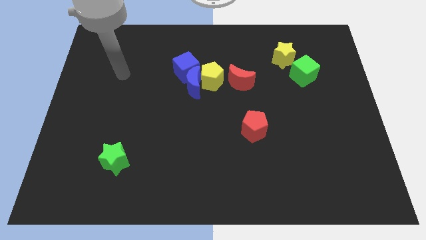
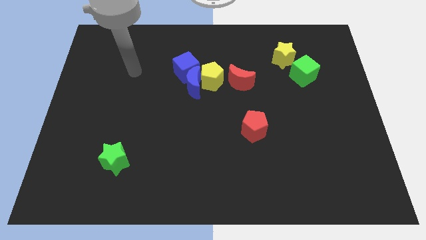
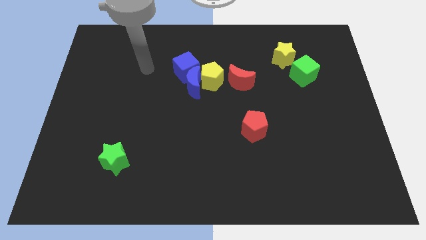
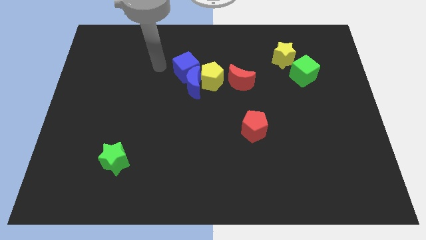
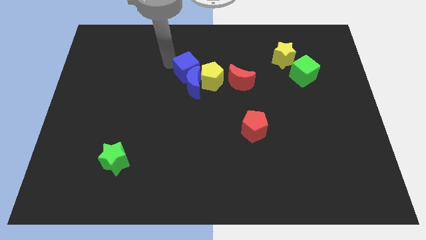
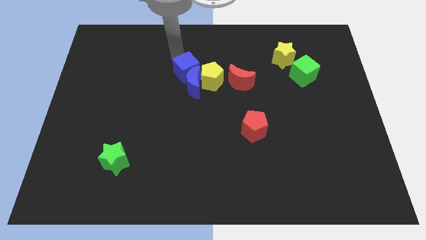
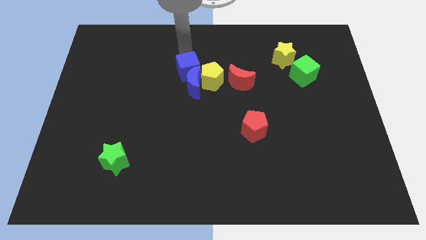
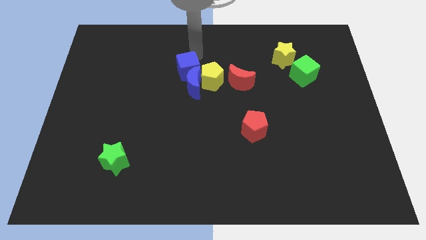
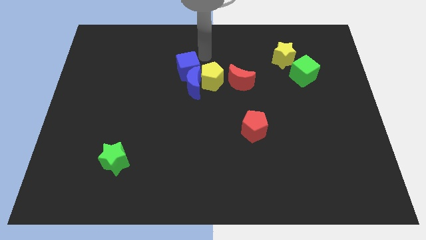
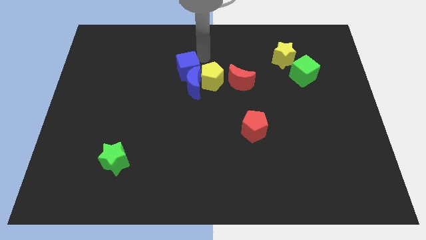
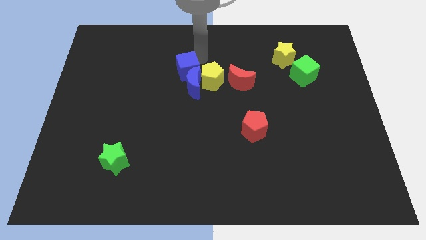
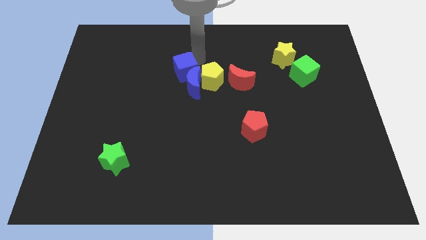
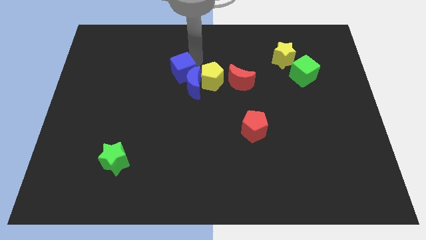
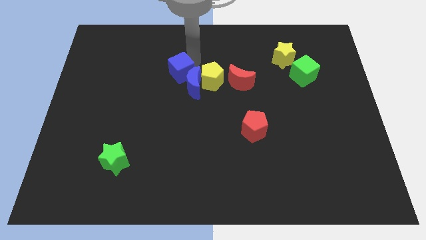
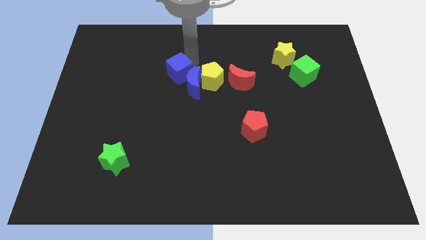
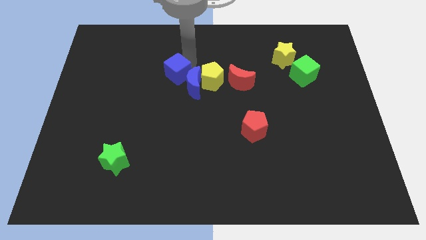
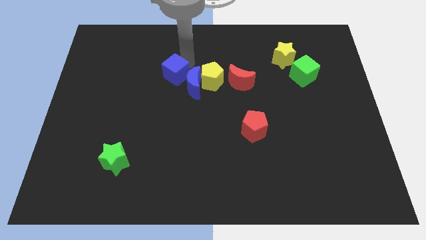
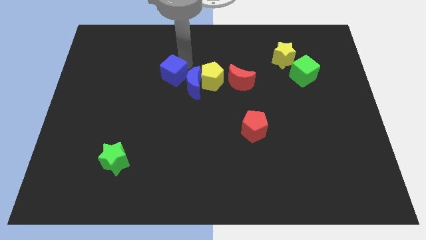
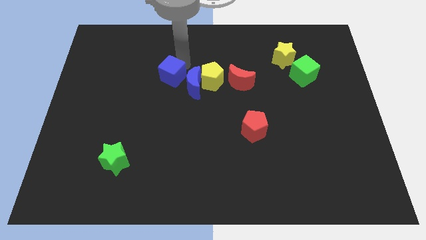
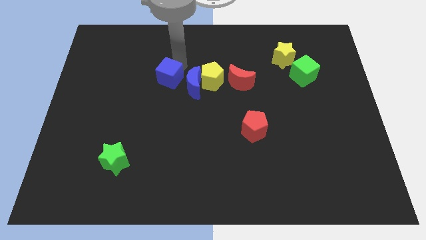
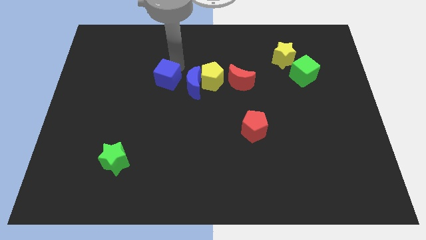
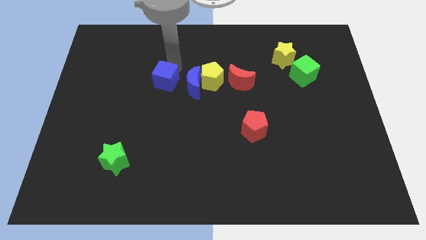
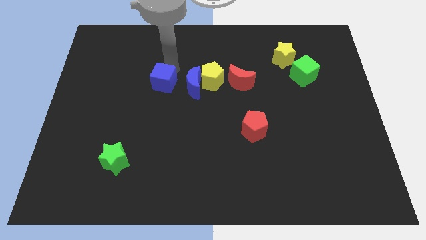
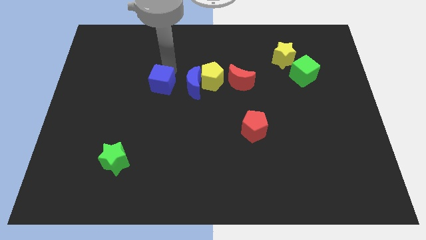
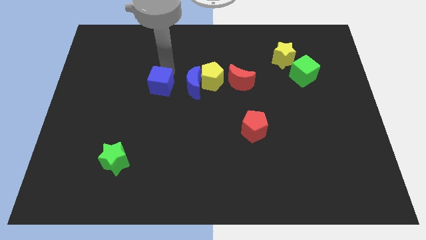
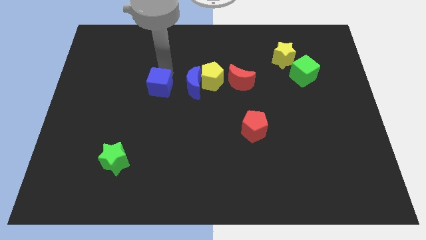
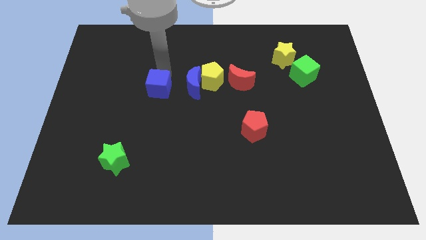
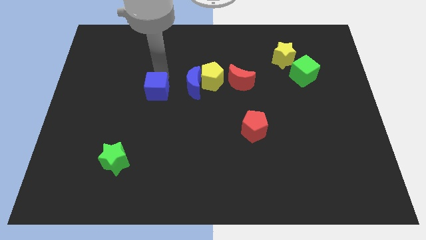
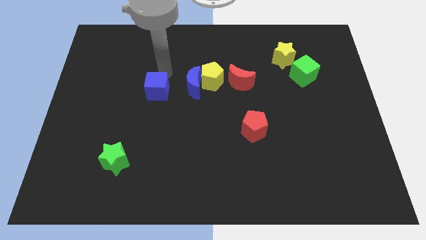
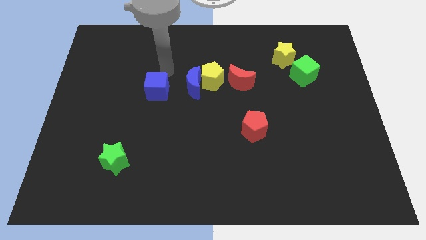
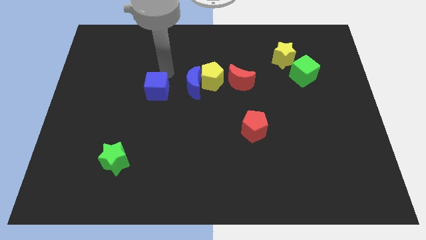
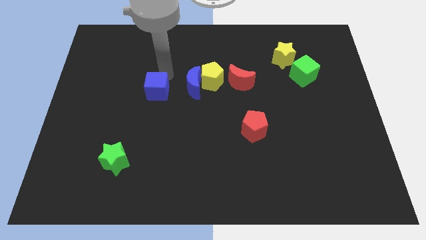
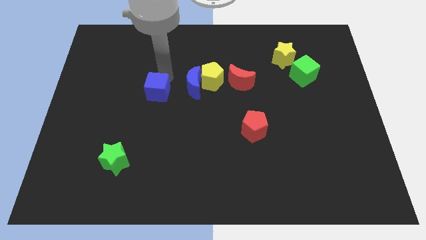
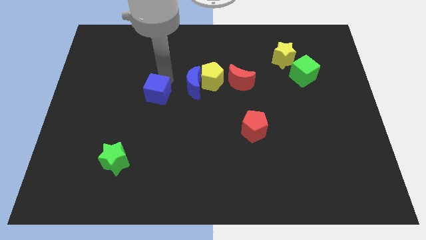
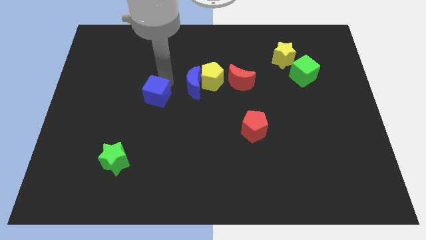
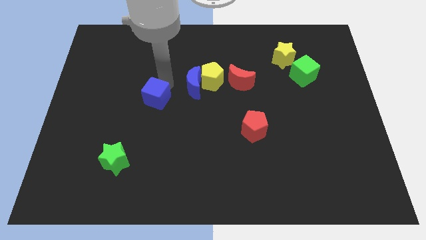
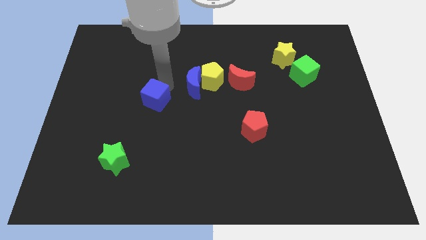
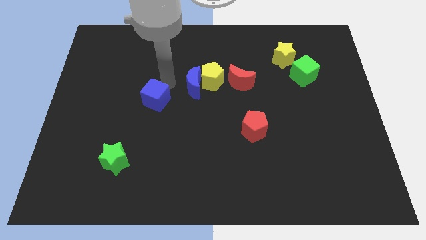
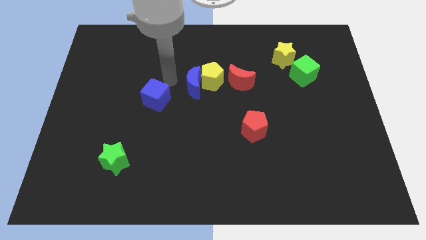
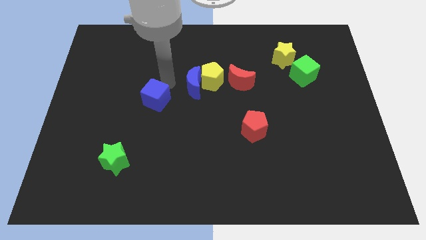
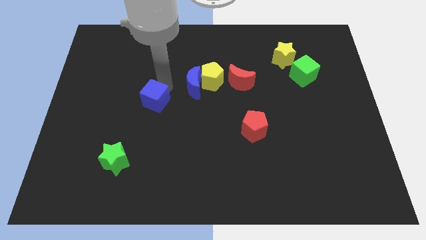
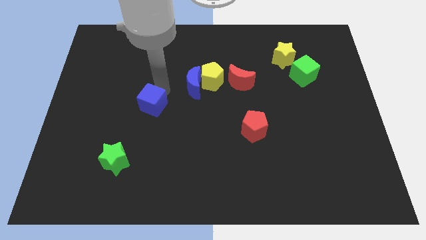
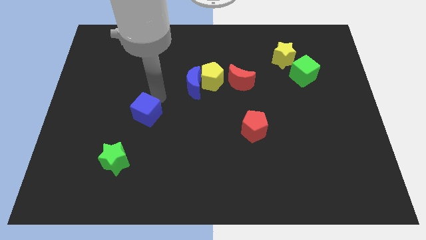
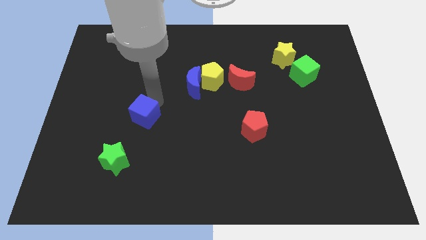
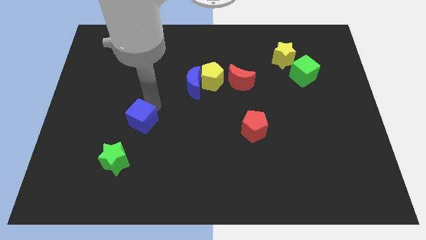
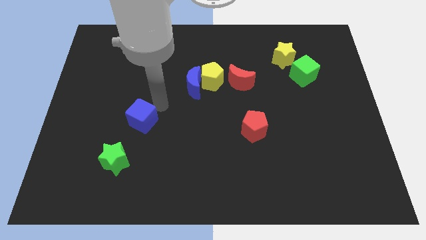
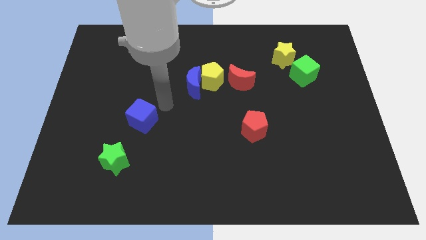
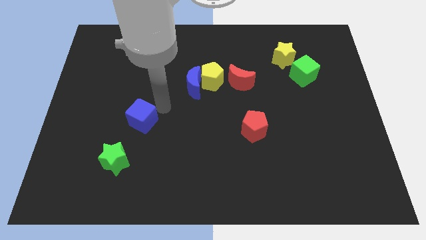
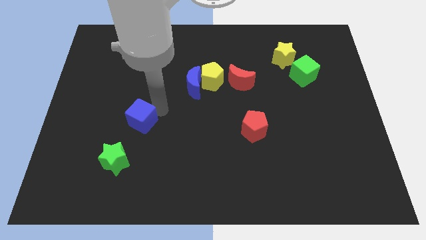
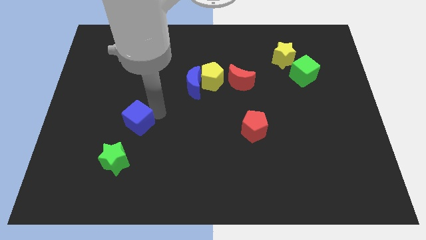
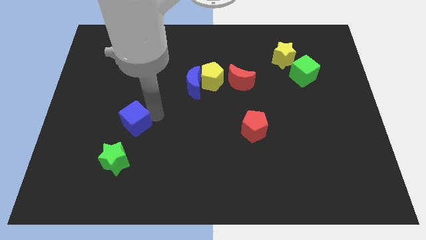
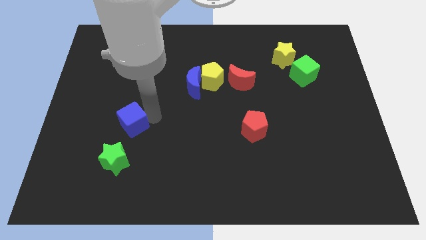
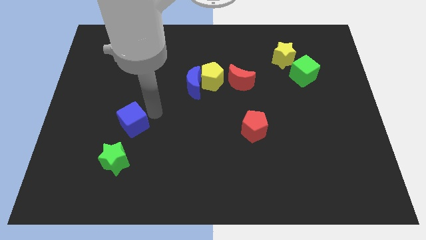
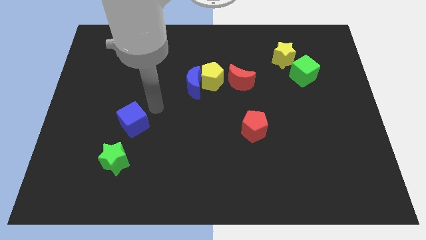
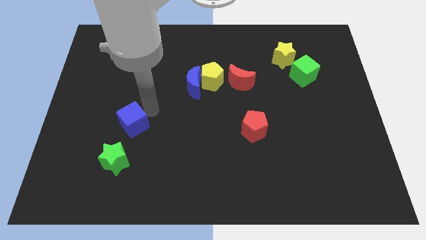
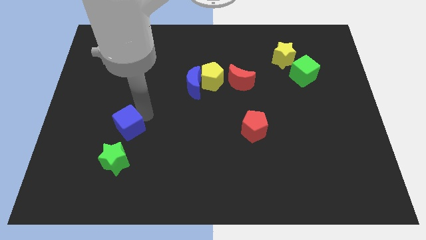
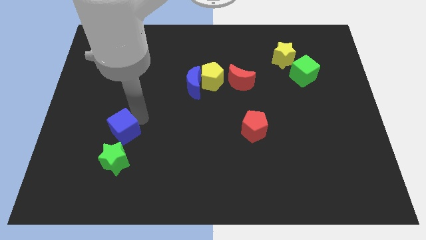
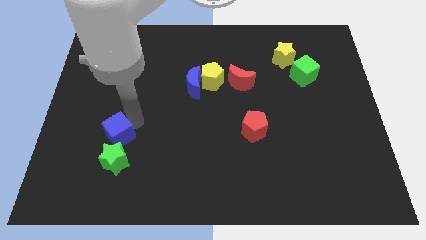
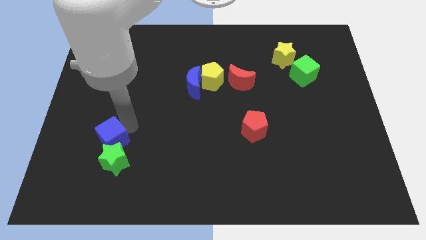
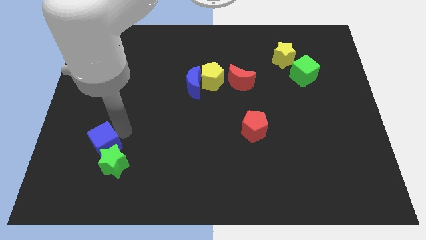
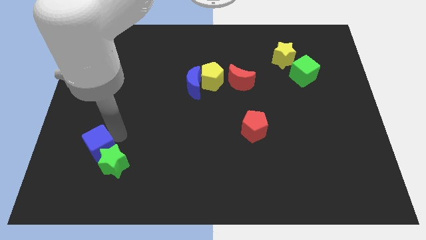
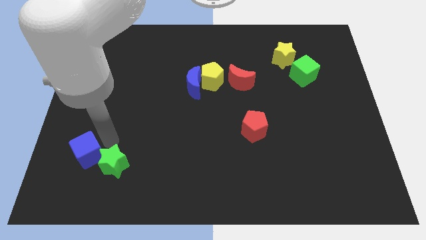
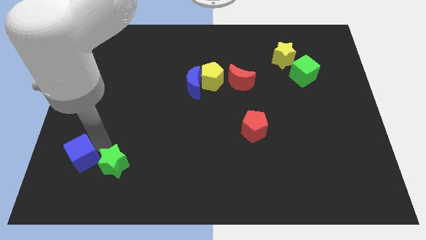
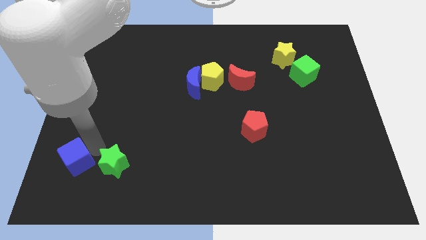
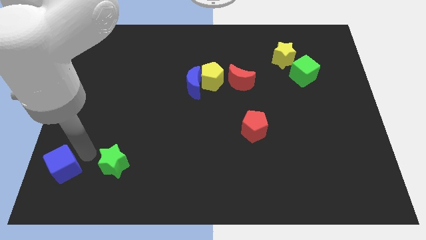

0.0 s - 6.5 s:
move the blue cube to the lower left corner

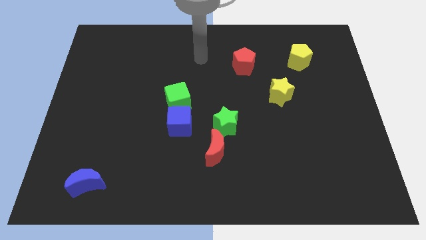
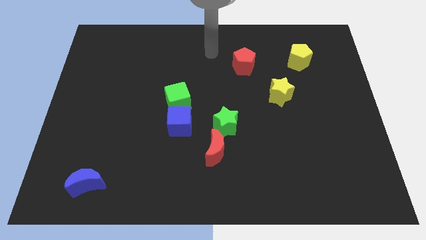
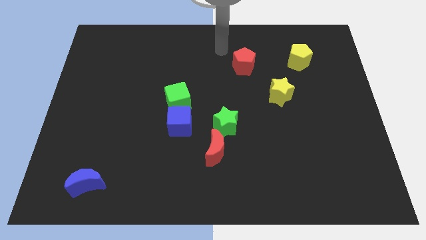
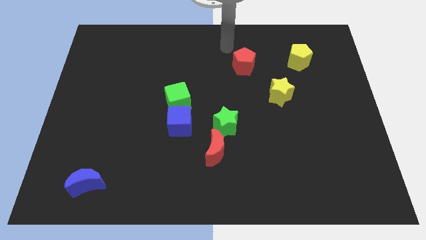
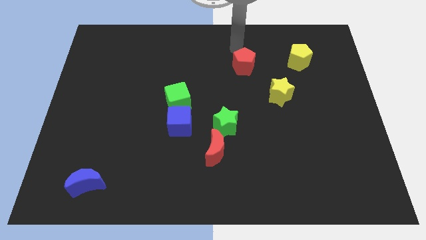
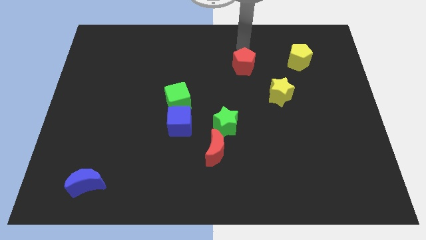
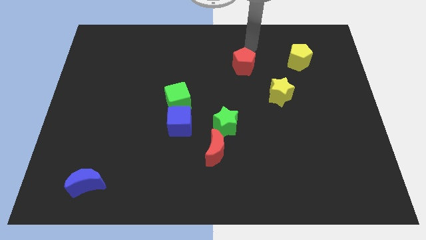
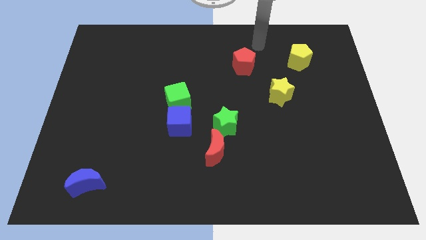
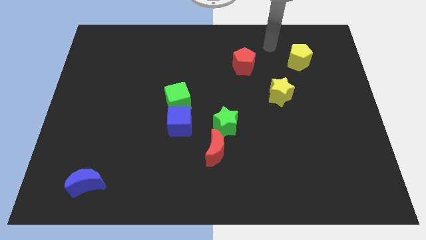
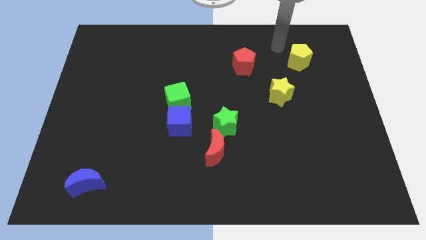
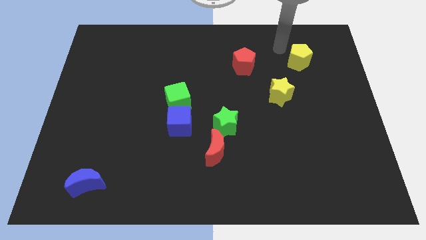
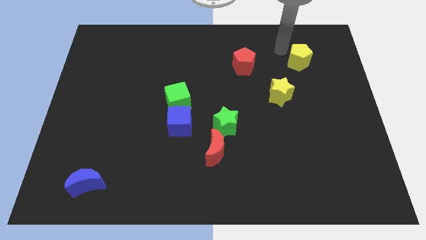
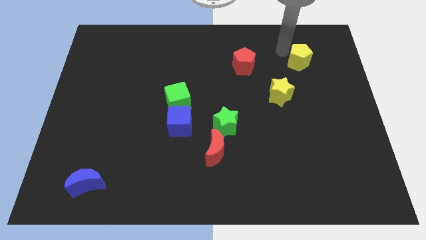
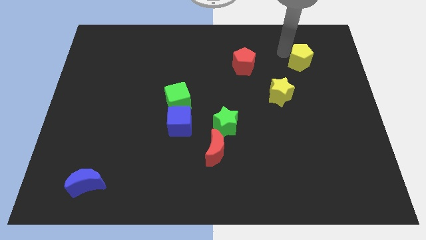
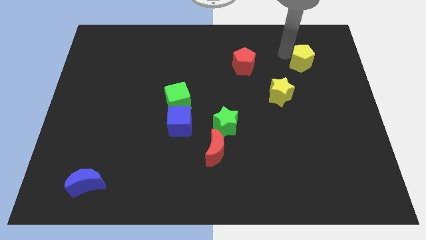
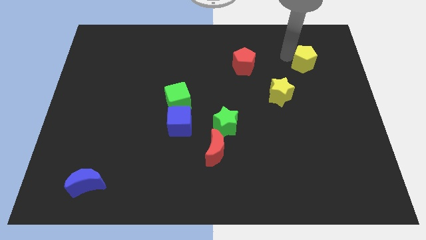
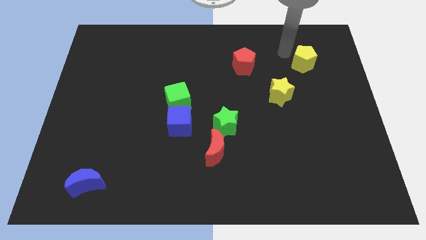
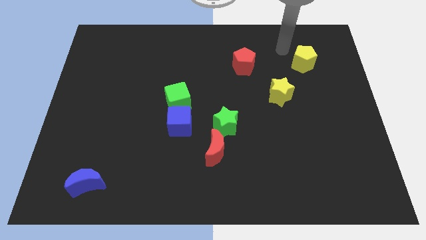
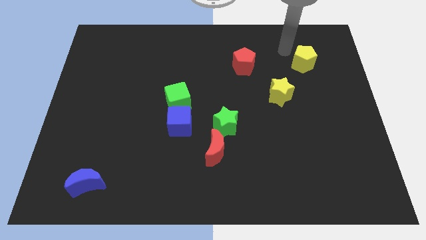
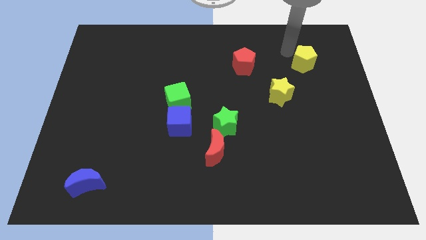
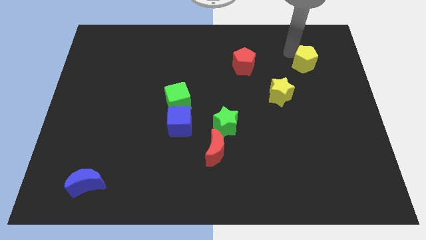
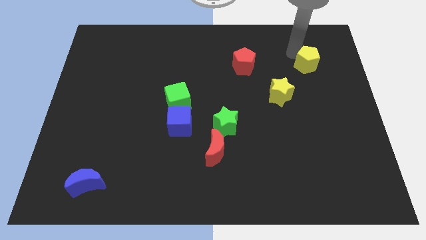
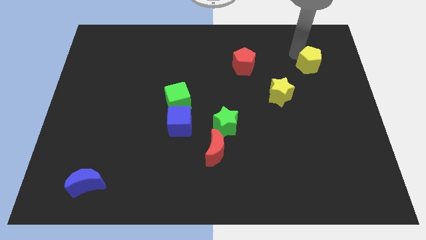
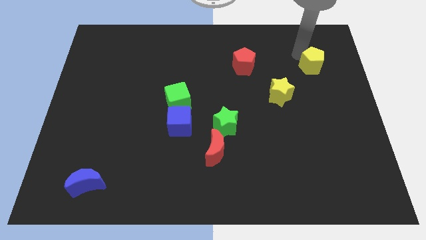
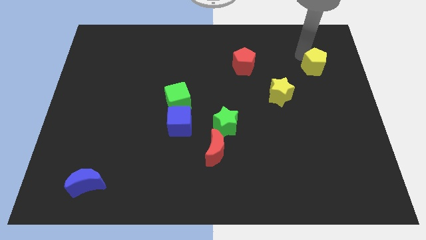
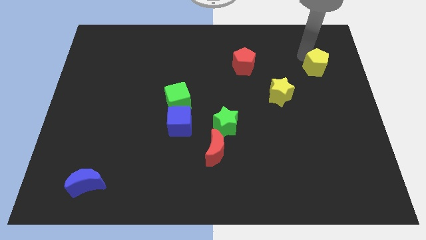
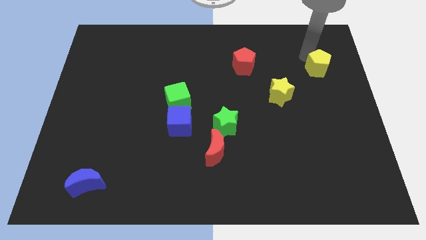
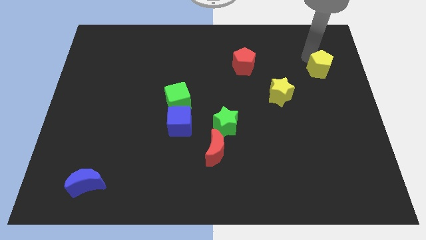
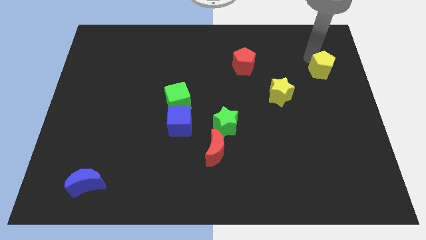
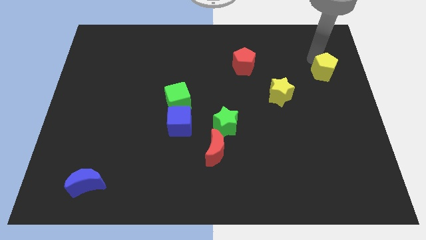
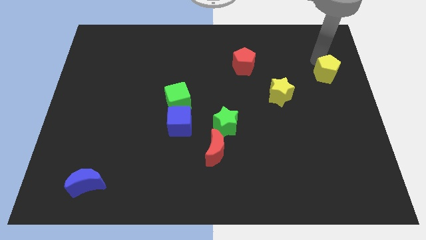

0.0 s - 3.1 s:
put the yellow pentagon to the right side
